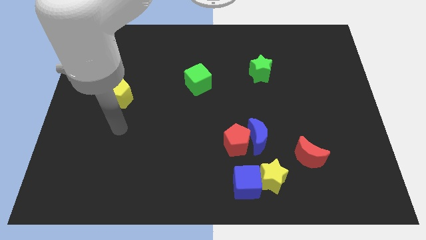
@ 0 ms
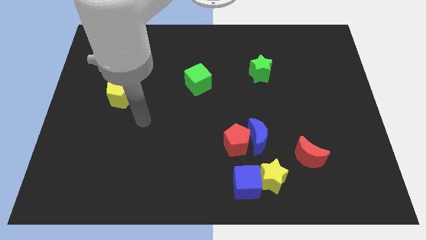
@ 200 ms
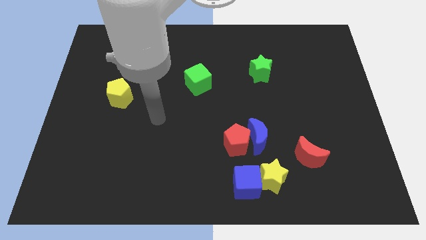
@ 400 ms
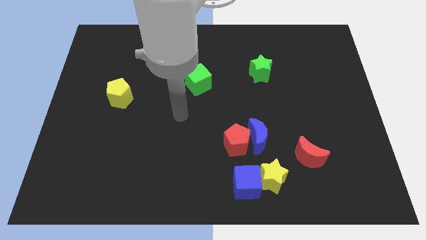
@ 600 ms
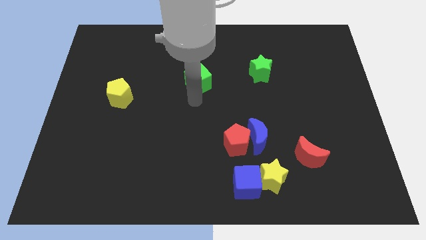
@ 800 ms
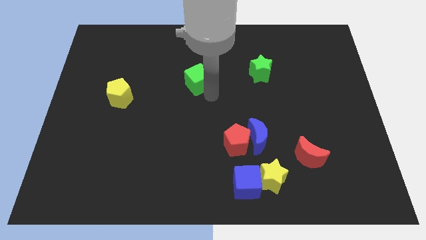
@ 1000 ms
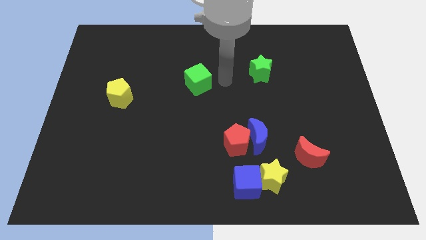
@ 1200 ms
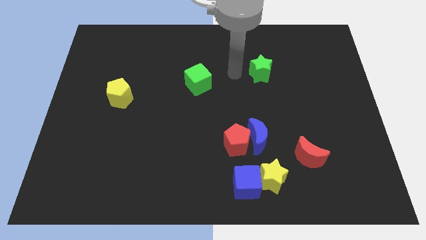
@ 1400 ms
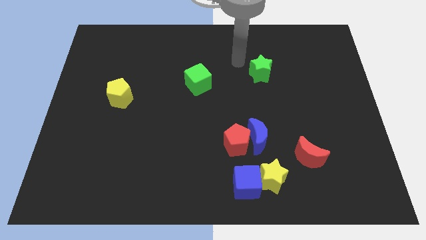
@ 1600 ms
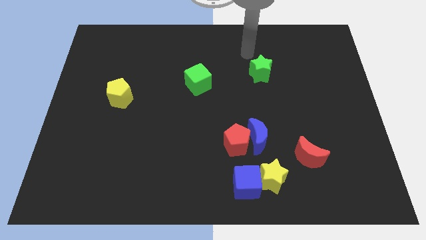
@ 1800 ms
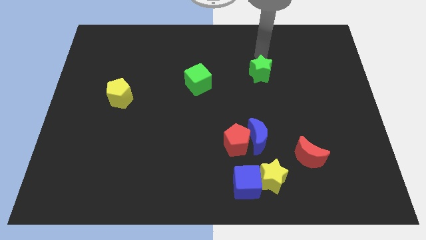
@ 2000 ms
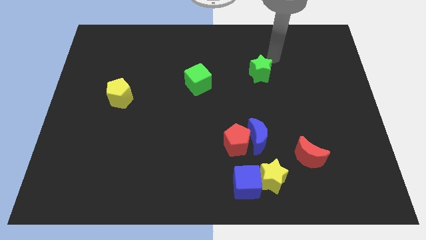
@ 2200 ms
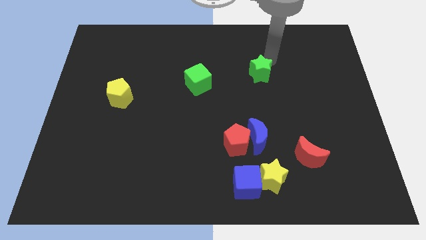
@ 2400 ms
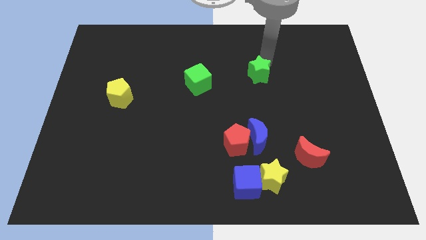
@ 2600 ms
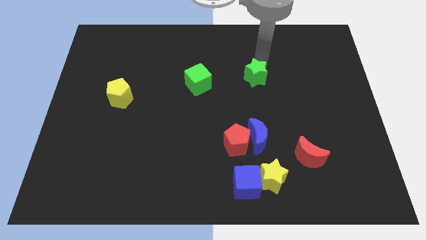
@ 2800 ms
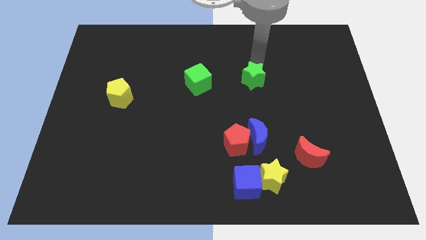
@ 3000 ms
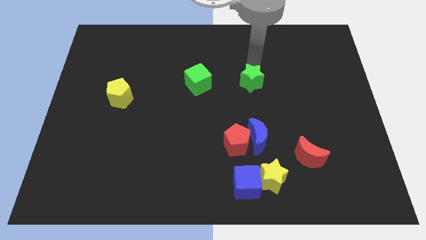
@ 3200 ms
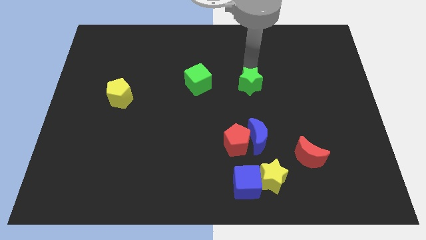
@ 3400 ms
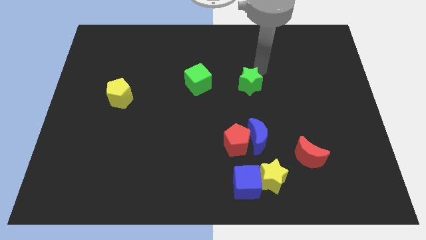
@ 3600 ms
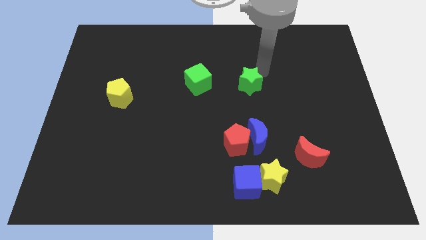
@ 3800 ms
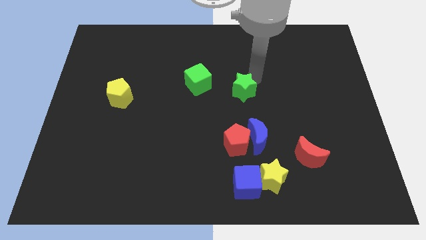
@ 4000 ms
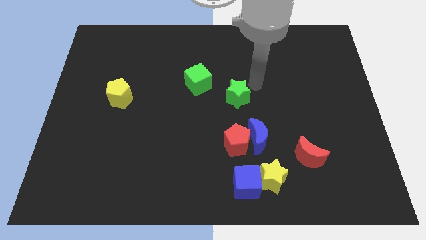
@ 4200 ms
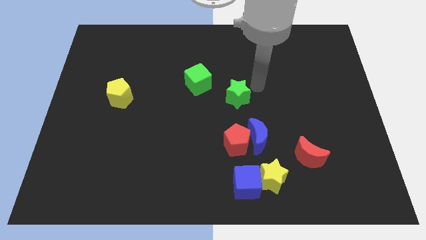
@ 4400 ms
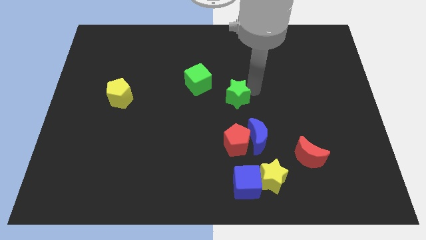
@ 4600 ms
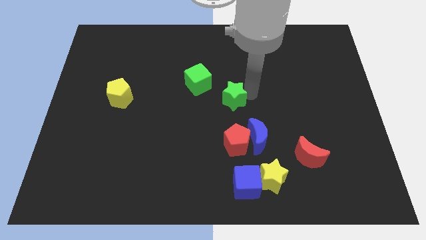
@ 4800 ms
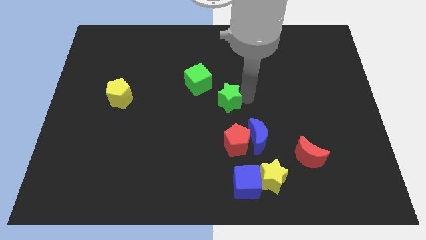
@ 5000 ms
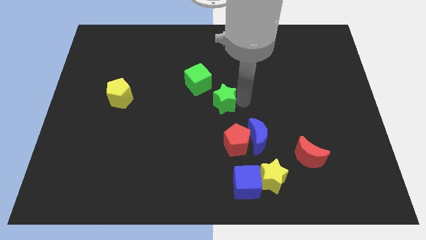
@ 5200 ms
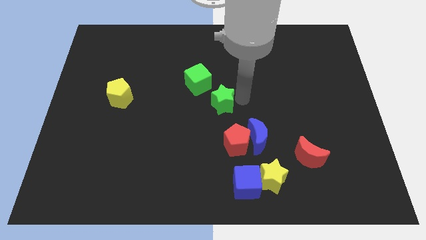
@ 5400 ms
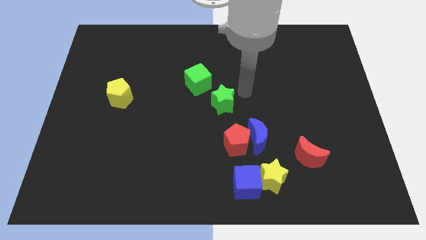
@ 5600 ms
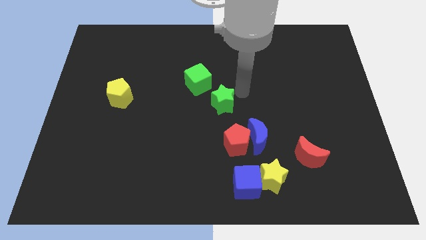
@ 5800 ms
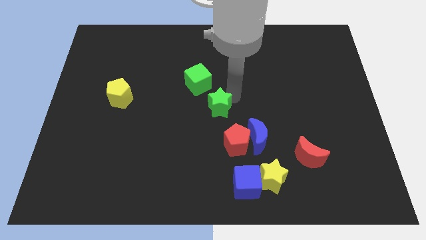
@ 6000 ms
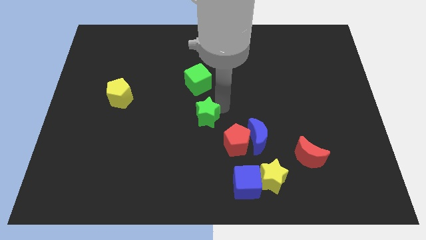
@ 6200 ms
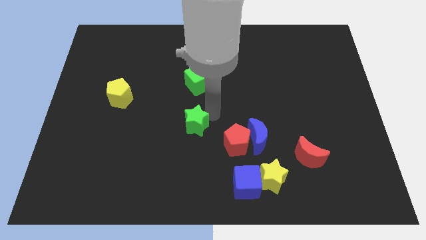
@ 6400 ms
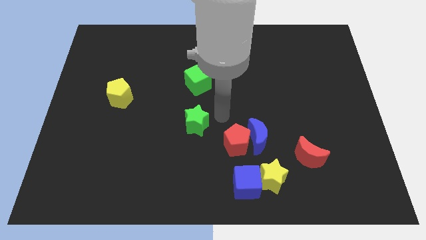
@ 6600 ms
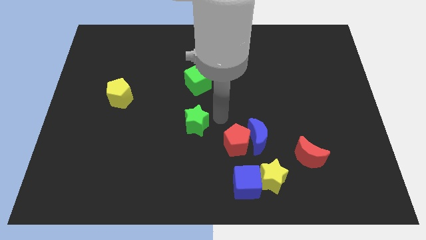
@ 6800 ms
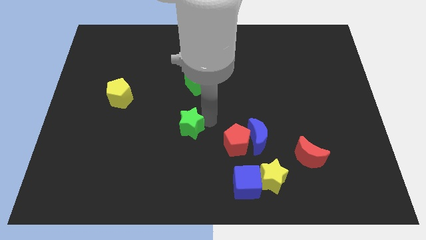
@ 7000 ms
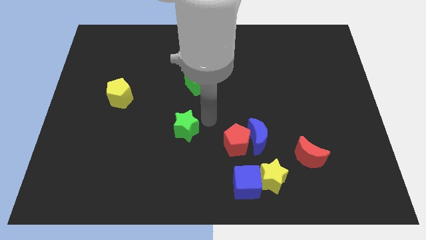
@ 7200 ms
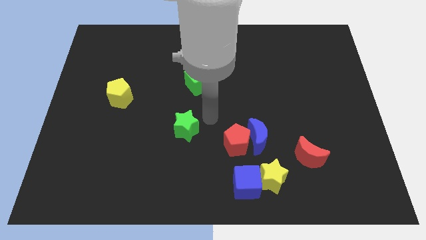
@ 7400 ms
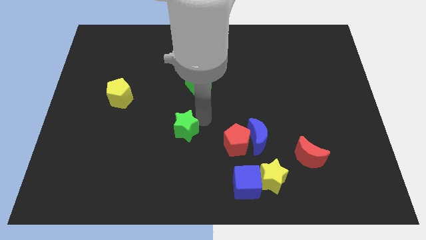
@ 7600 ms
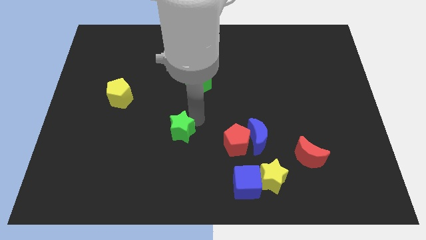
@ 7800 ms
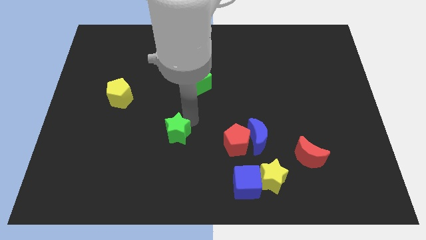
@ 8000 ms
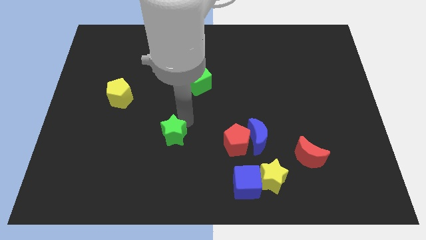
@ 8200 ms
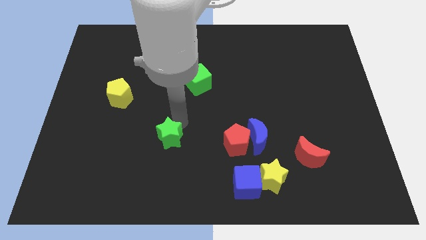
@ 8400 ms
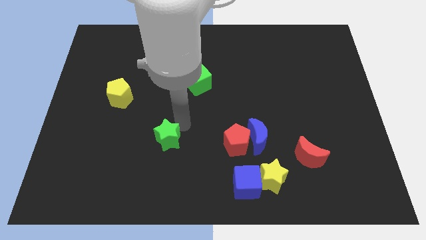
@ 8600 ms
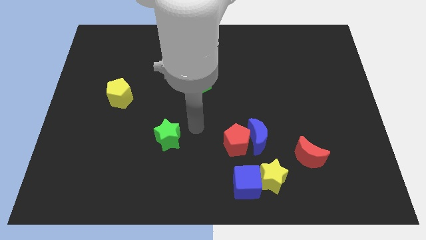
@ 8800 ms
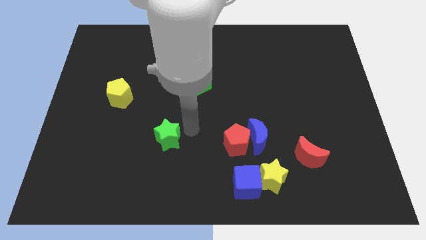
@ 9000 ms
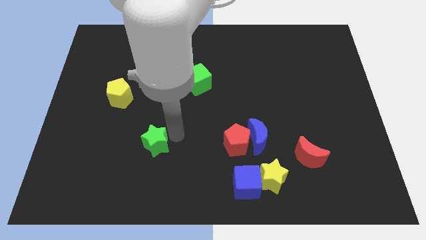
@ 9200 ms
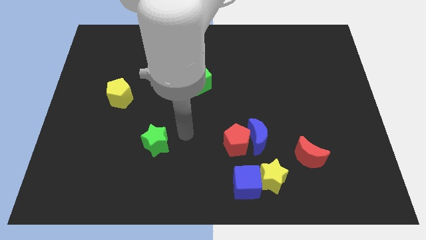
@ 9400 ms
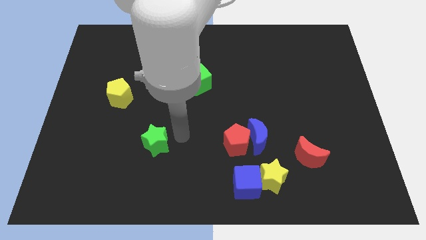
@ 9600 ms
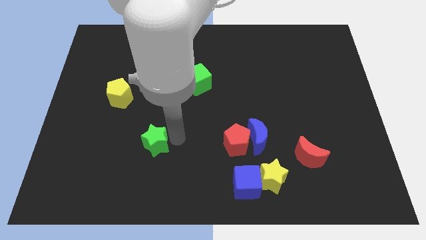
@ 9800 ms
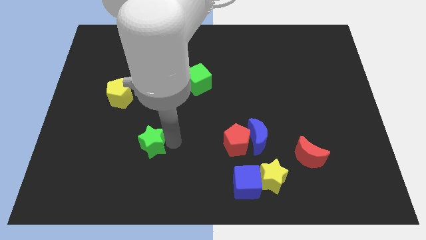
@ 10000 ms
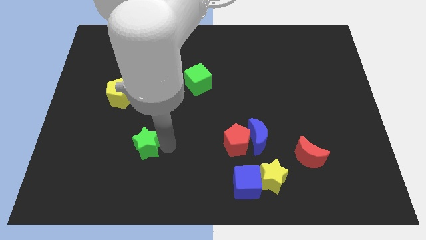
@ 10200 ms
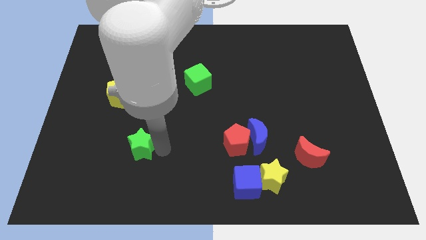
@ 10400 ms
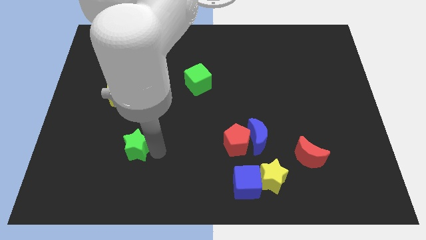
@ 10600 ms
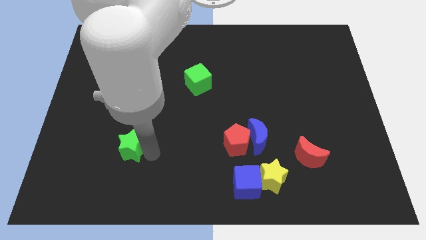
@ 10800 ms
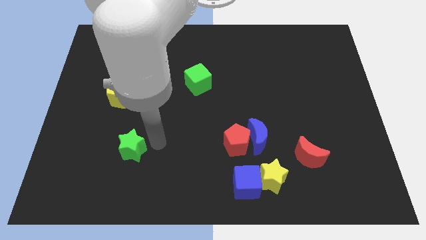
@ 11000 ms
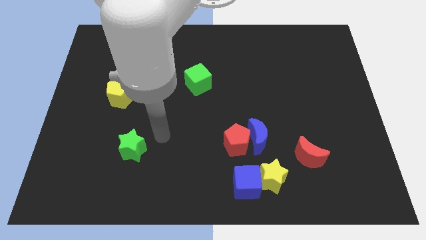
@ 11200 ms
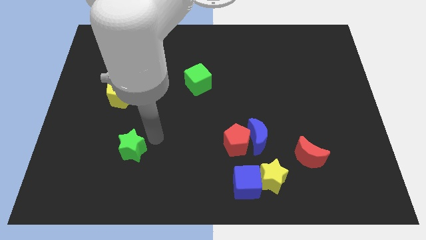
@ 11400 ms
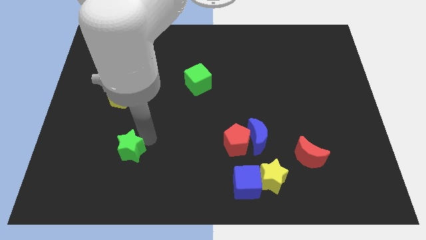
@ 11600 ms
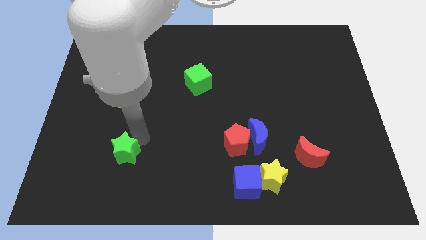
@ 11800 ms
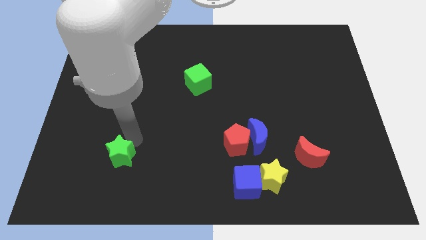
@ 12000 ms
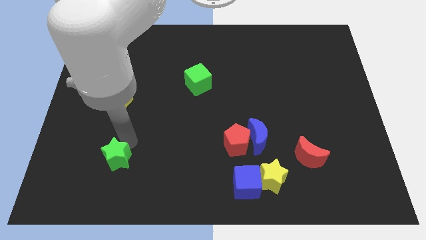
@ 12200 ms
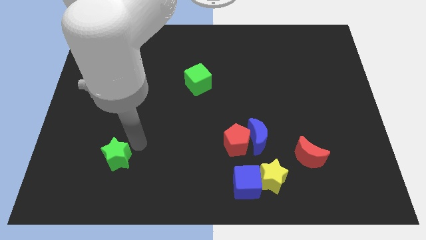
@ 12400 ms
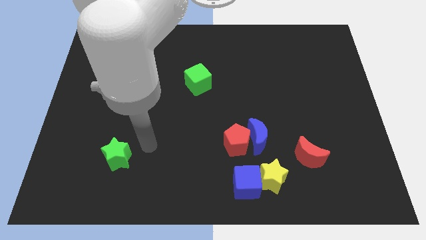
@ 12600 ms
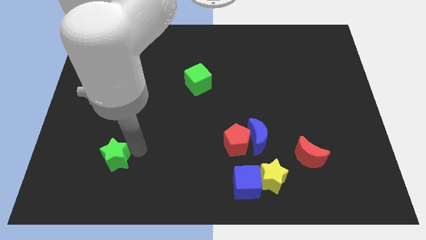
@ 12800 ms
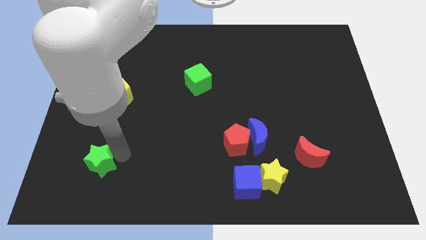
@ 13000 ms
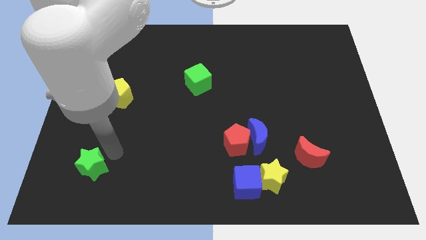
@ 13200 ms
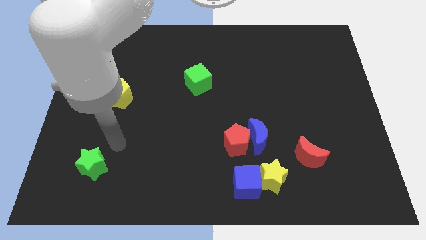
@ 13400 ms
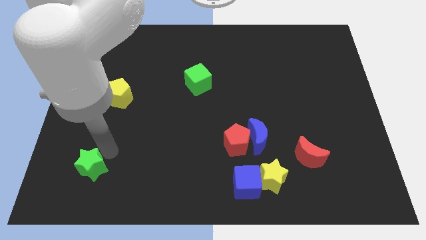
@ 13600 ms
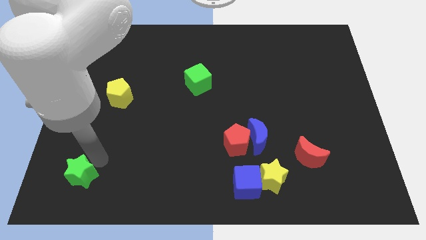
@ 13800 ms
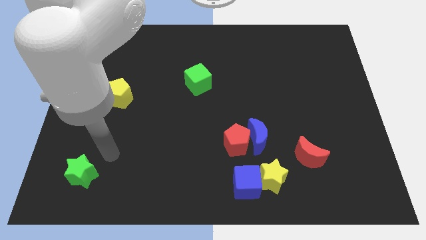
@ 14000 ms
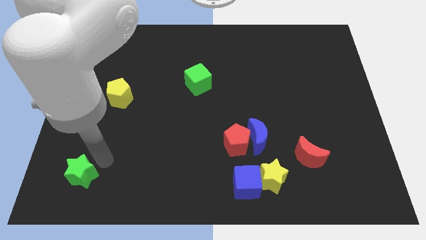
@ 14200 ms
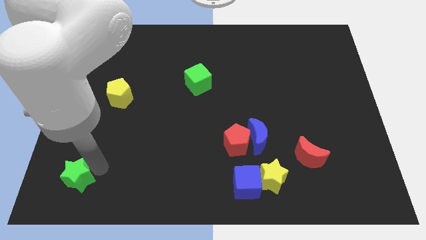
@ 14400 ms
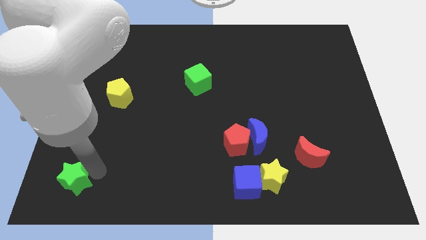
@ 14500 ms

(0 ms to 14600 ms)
slide the green star to the bottom left of the board
